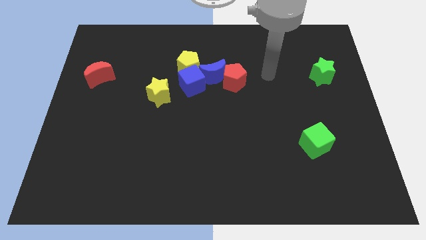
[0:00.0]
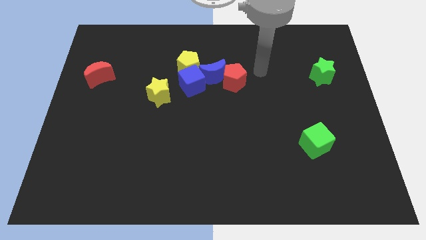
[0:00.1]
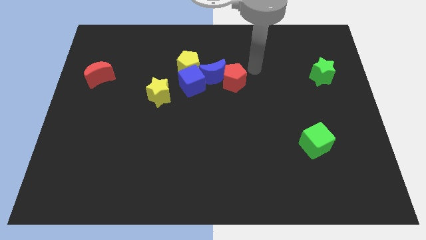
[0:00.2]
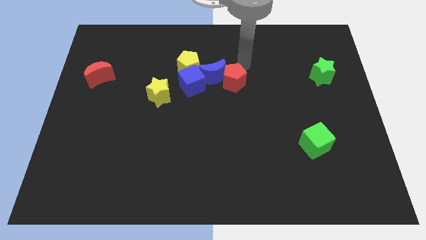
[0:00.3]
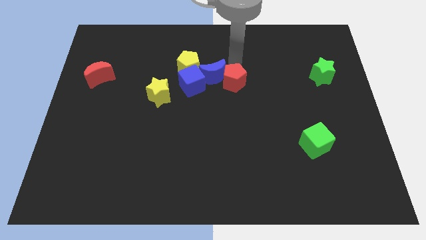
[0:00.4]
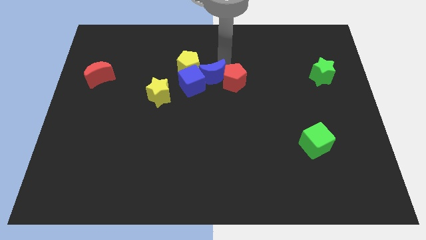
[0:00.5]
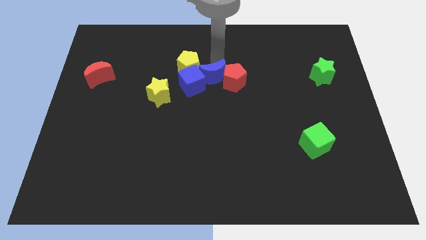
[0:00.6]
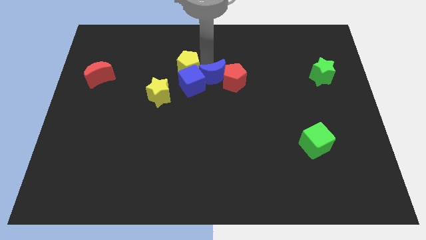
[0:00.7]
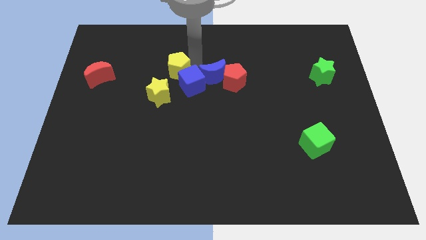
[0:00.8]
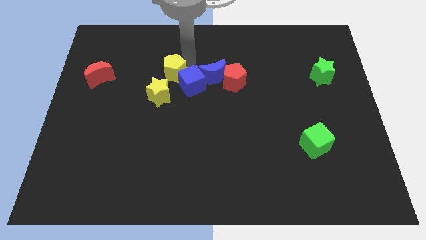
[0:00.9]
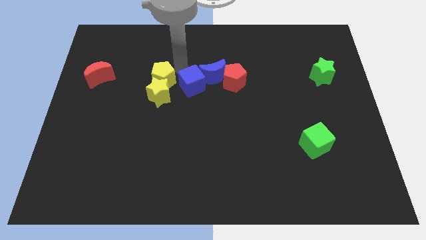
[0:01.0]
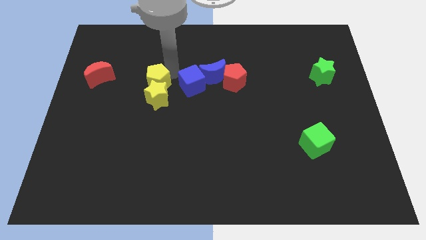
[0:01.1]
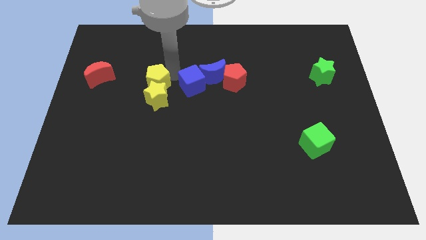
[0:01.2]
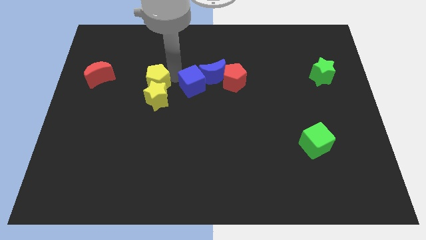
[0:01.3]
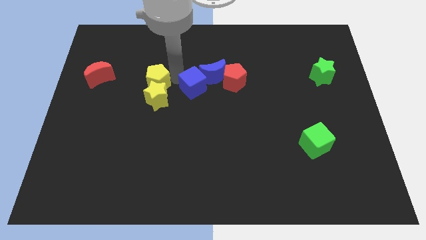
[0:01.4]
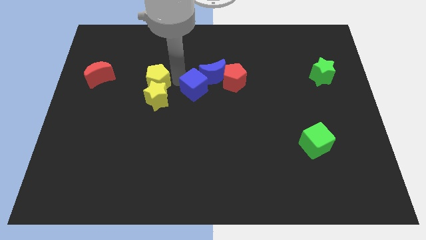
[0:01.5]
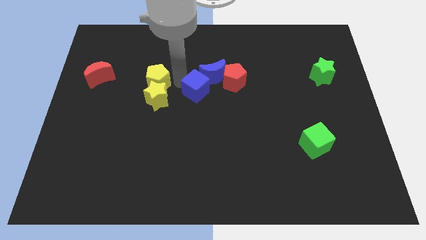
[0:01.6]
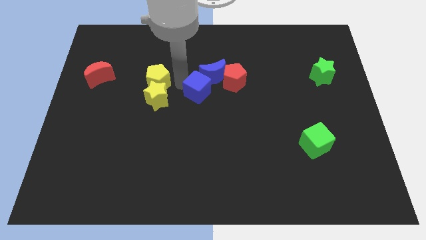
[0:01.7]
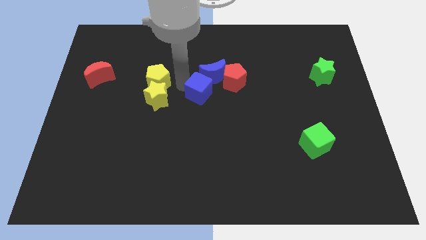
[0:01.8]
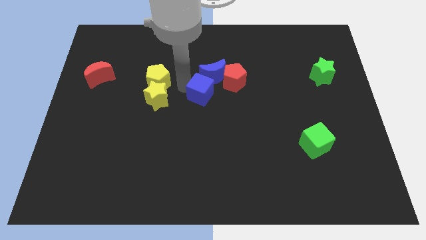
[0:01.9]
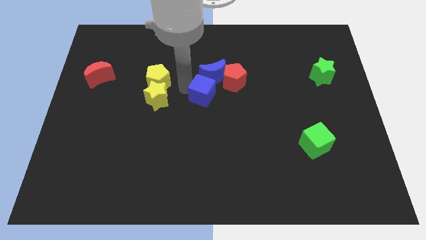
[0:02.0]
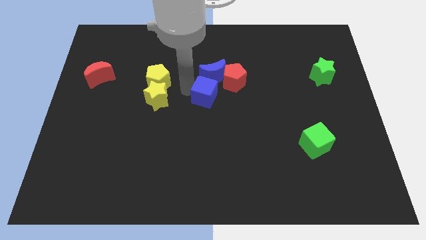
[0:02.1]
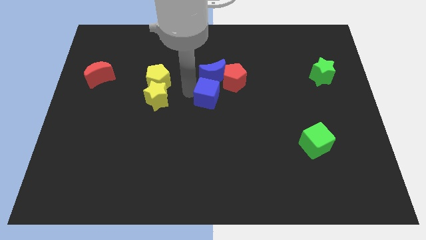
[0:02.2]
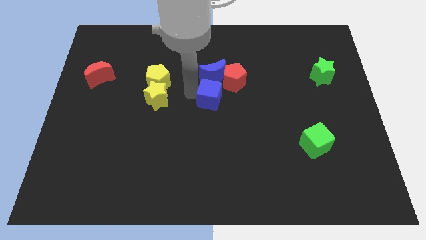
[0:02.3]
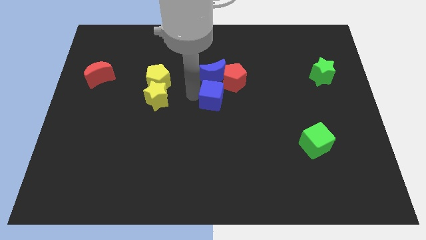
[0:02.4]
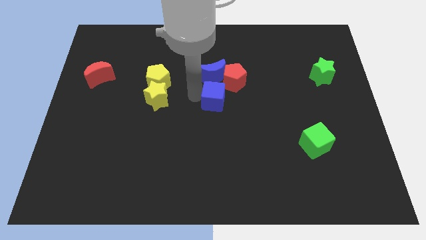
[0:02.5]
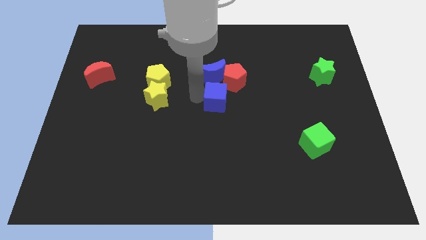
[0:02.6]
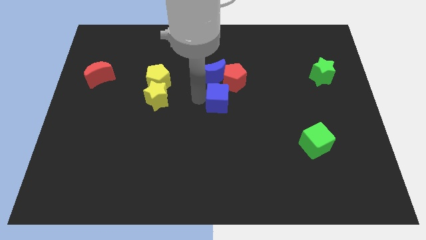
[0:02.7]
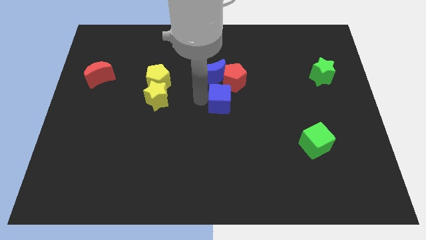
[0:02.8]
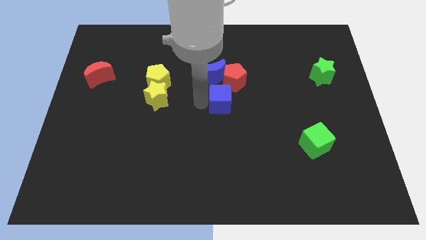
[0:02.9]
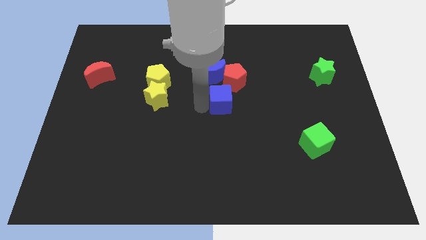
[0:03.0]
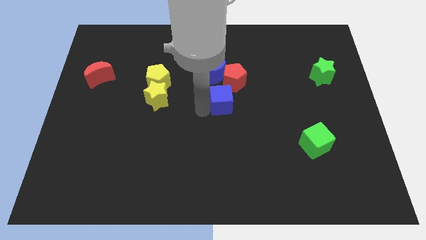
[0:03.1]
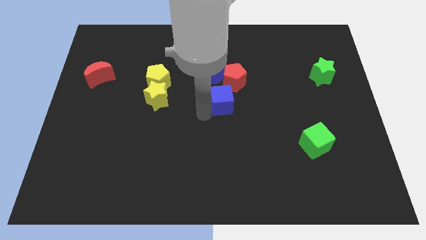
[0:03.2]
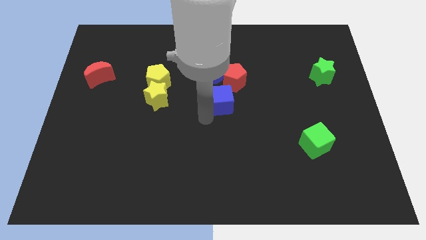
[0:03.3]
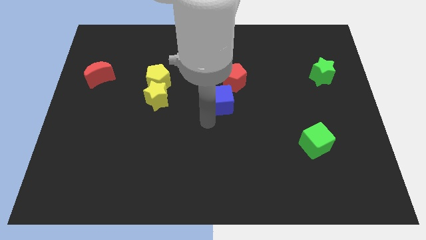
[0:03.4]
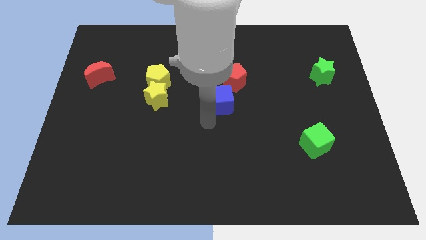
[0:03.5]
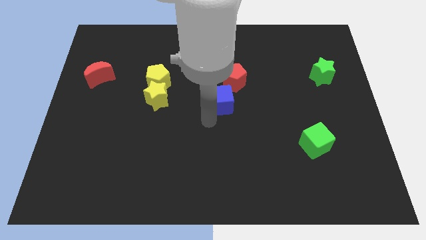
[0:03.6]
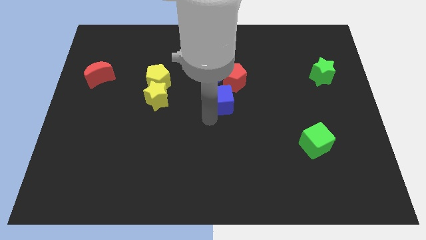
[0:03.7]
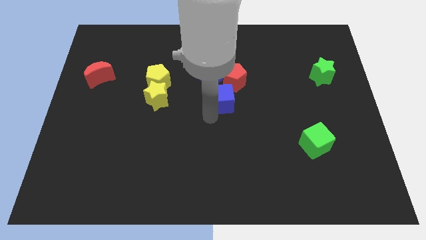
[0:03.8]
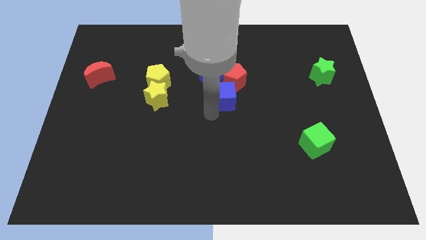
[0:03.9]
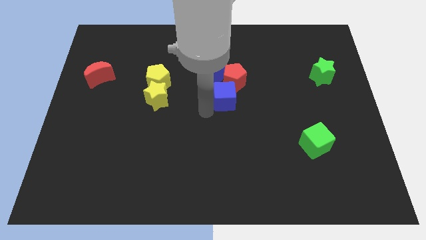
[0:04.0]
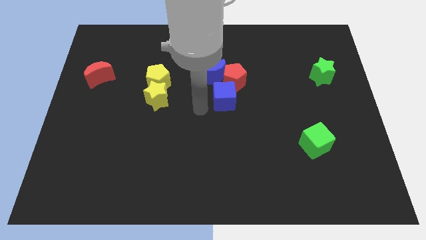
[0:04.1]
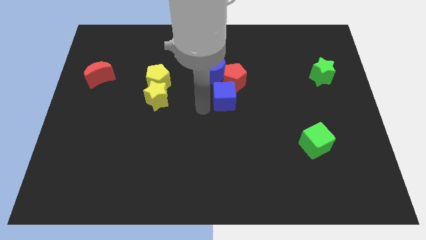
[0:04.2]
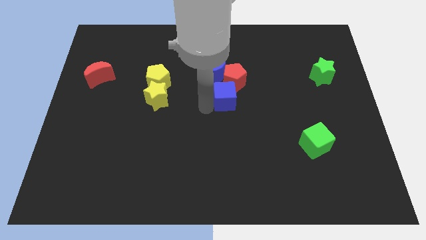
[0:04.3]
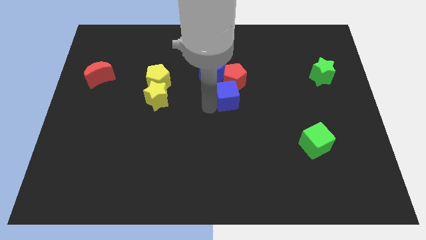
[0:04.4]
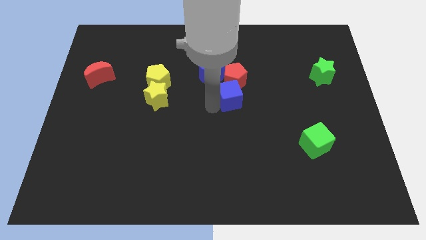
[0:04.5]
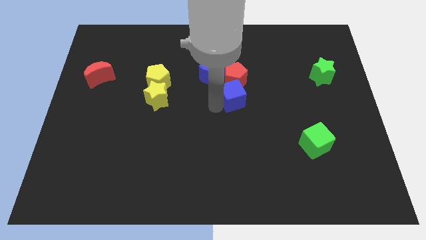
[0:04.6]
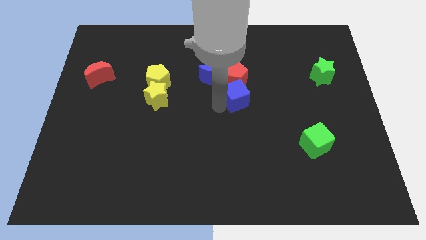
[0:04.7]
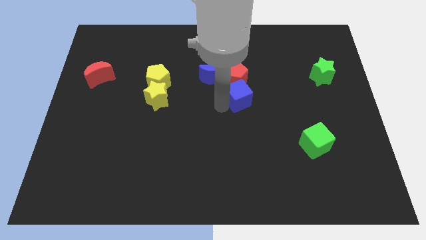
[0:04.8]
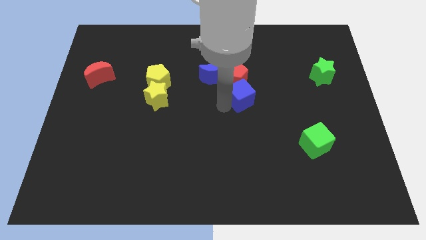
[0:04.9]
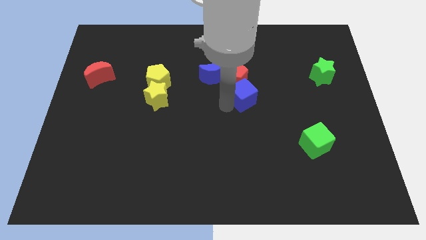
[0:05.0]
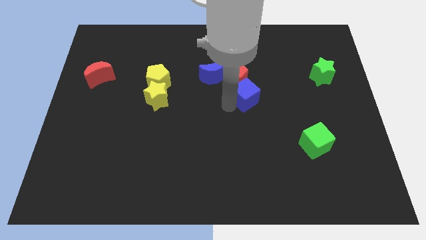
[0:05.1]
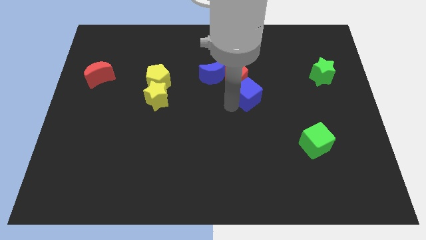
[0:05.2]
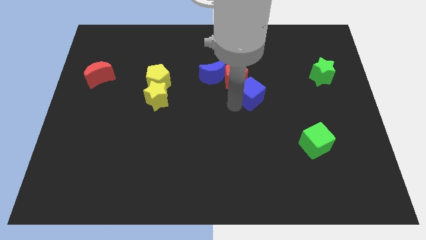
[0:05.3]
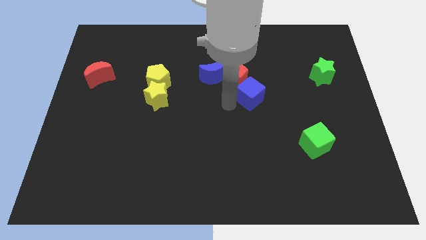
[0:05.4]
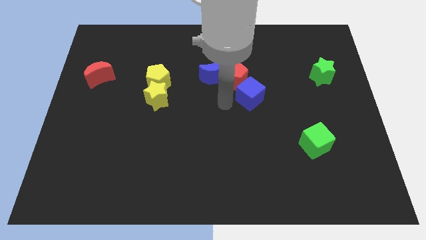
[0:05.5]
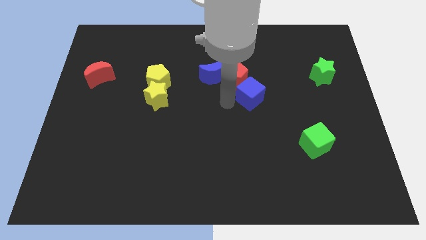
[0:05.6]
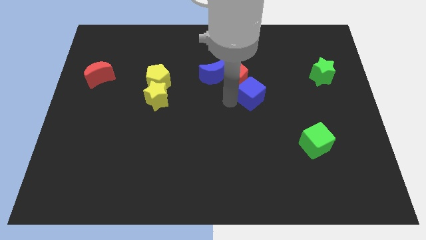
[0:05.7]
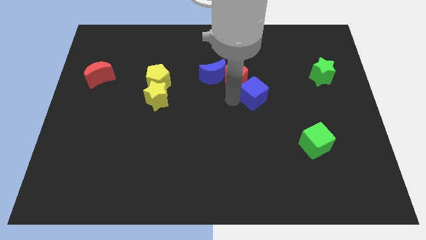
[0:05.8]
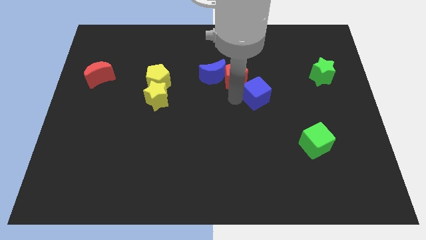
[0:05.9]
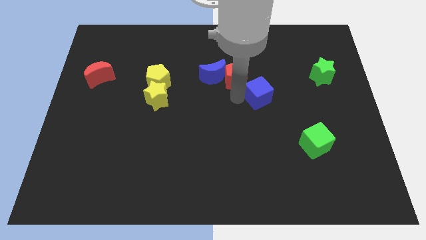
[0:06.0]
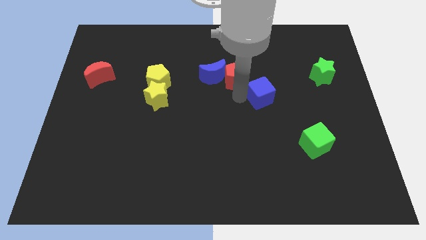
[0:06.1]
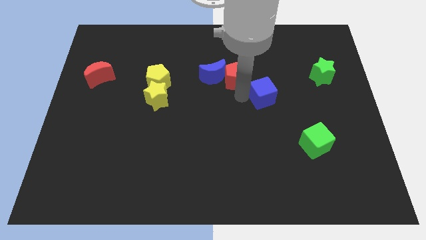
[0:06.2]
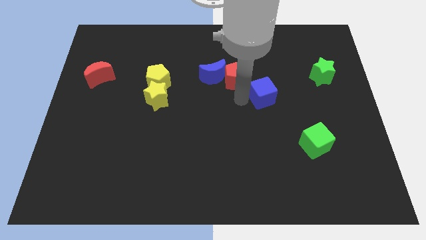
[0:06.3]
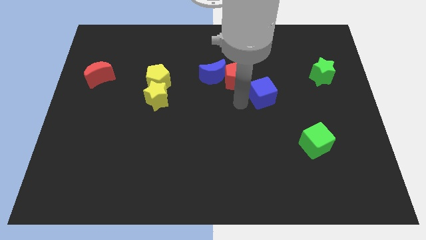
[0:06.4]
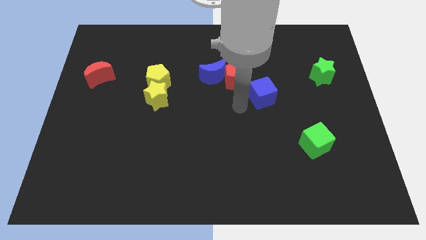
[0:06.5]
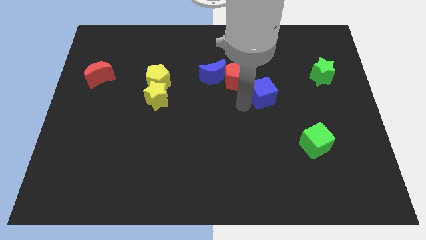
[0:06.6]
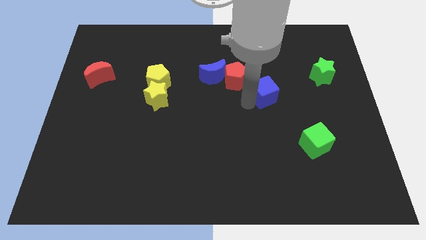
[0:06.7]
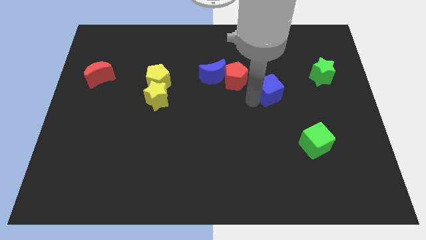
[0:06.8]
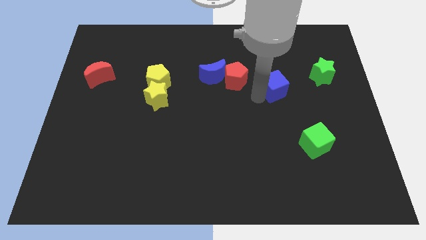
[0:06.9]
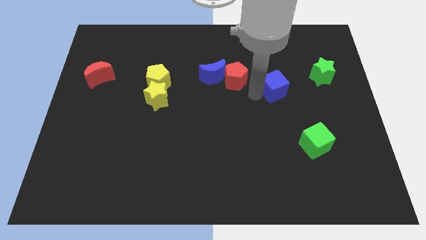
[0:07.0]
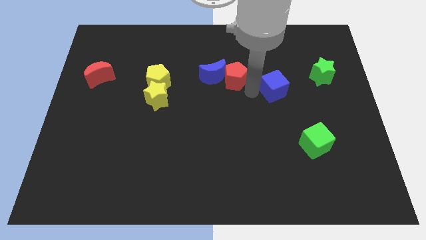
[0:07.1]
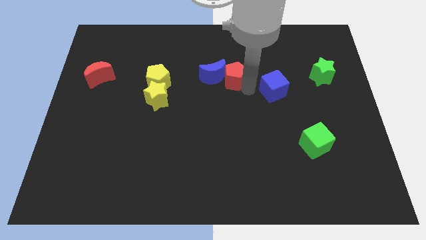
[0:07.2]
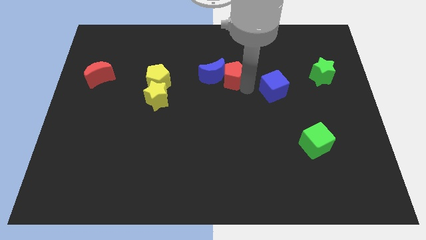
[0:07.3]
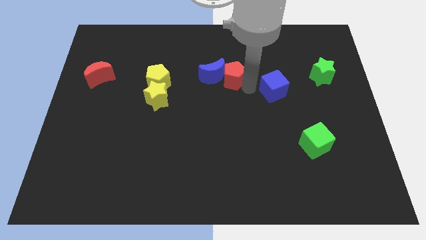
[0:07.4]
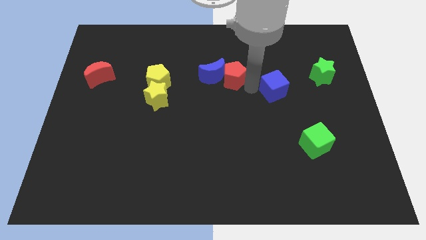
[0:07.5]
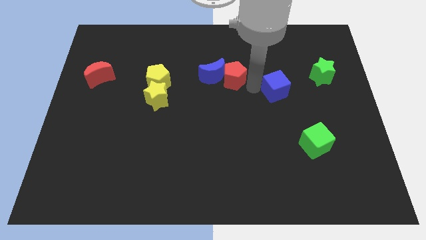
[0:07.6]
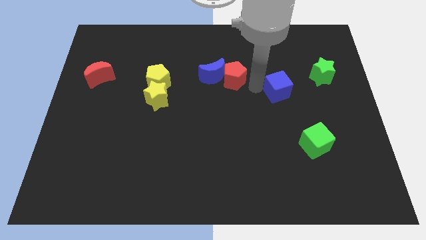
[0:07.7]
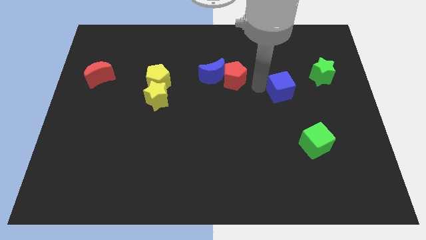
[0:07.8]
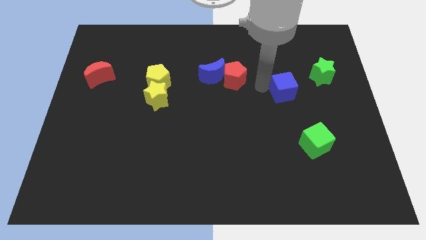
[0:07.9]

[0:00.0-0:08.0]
slide the blue cube diagonally down and to the left of the green star
